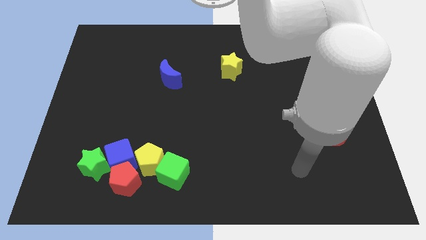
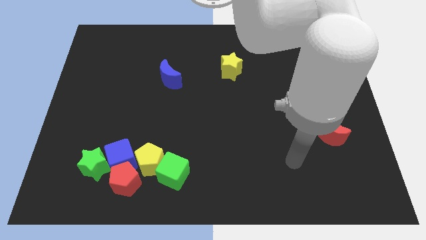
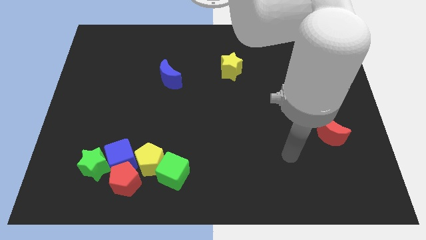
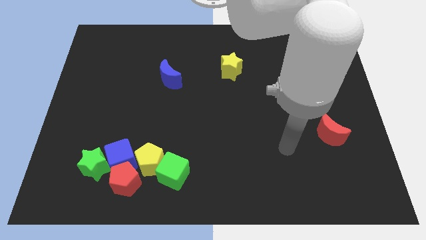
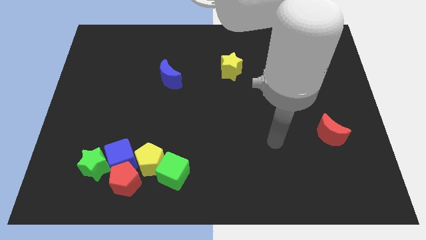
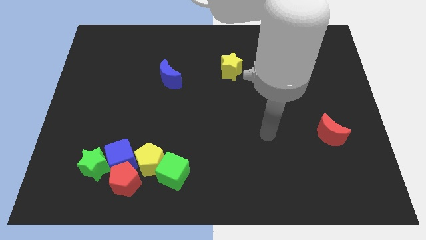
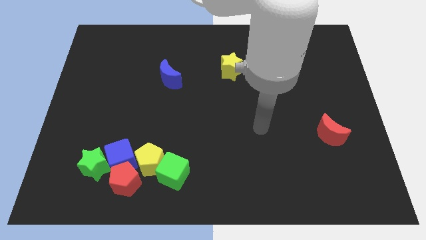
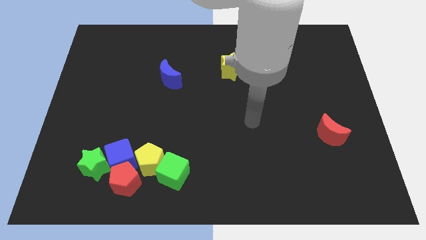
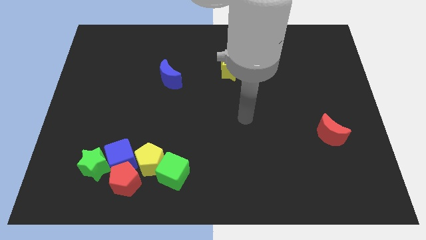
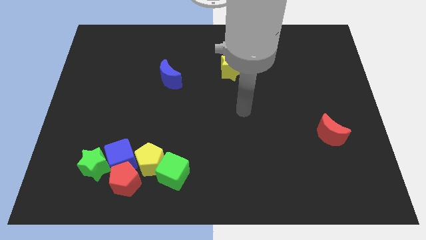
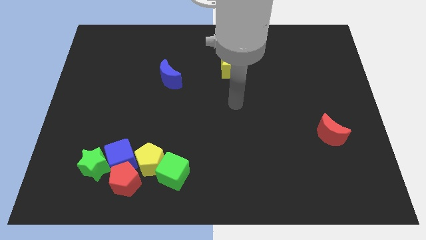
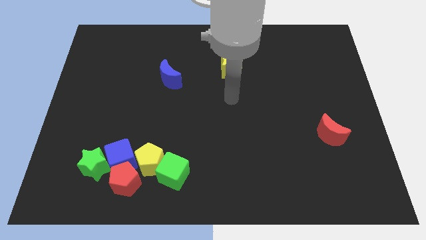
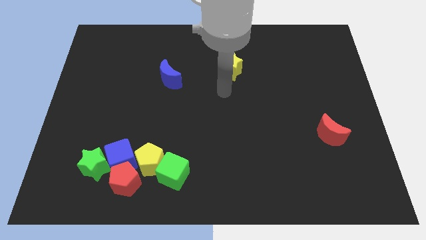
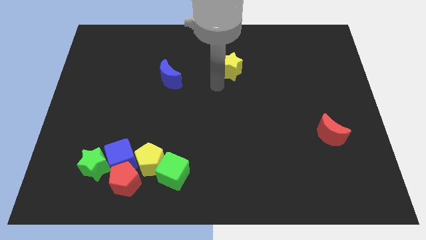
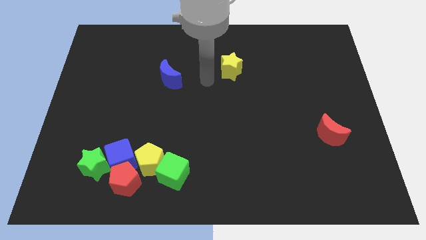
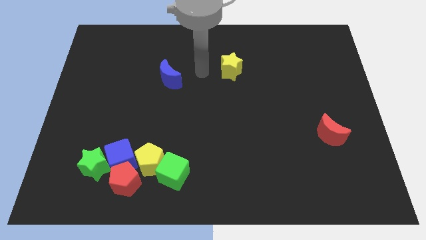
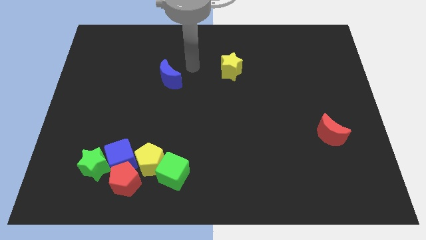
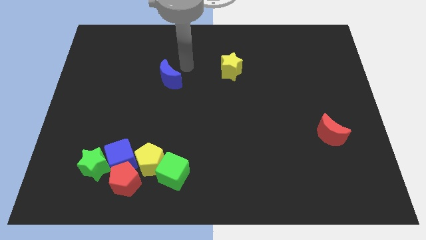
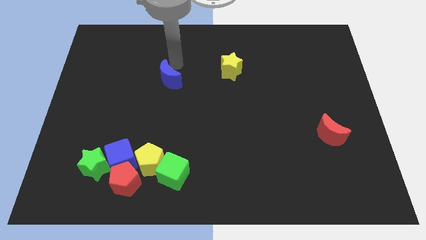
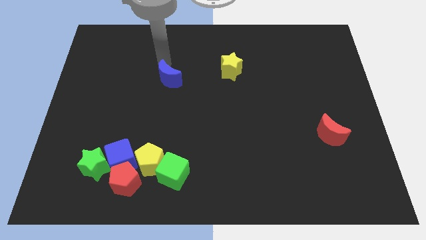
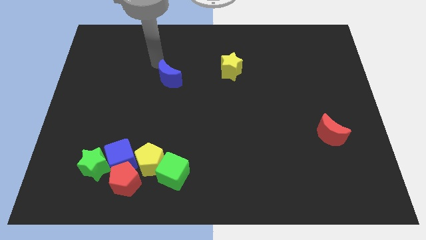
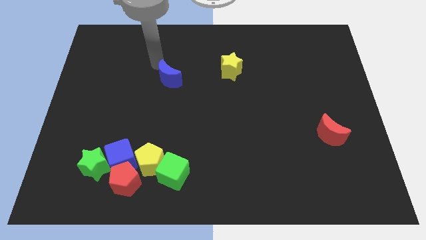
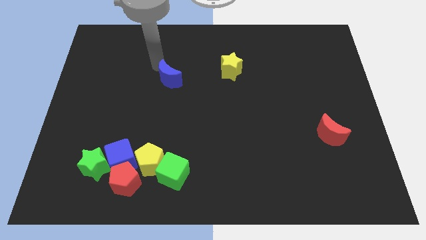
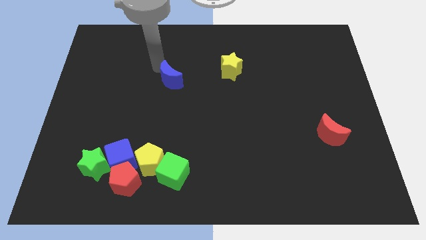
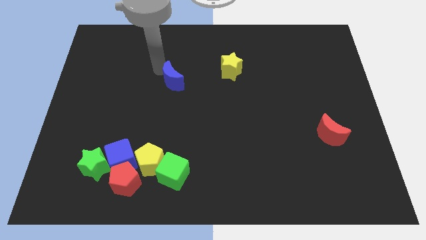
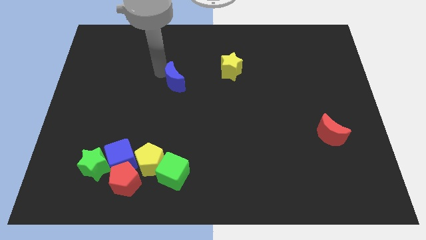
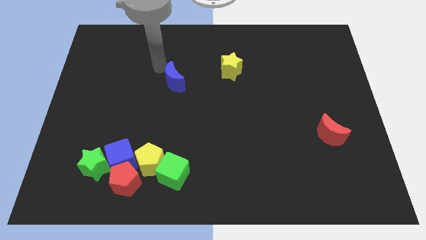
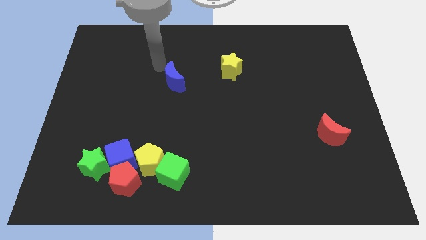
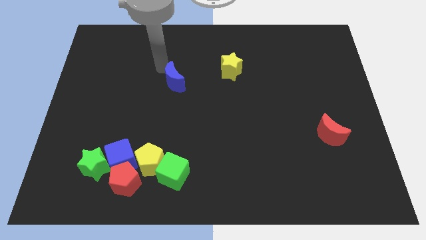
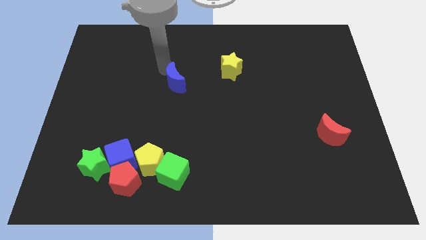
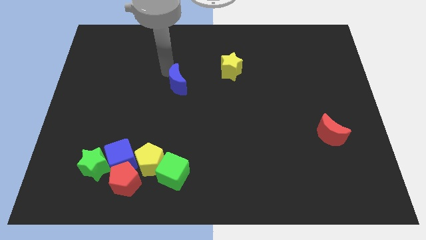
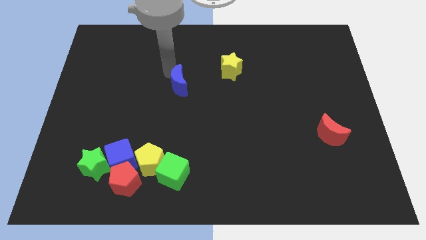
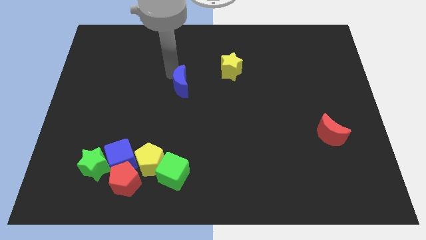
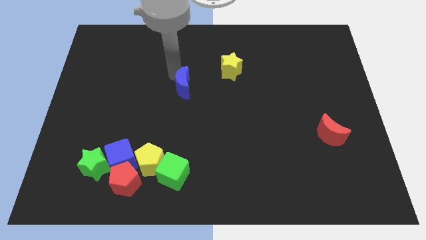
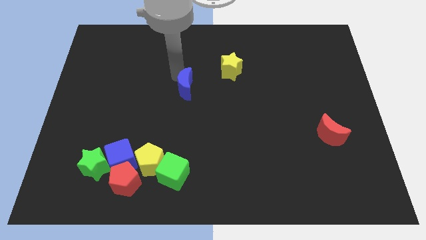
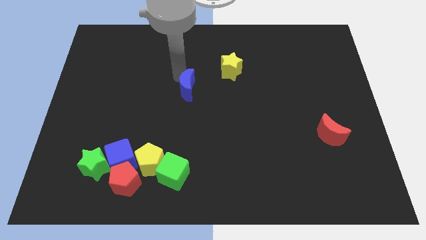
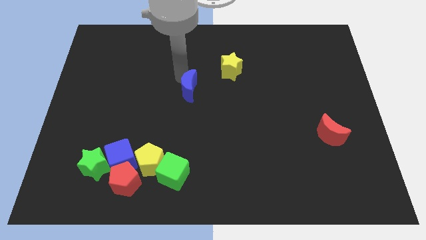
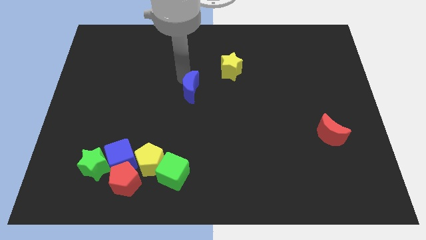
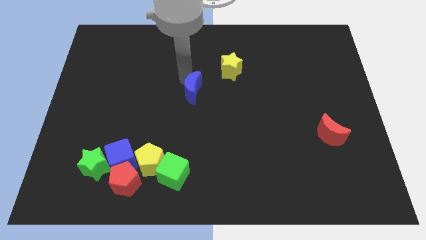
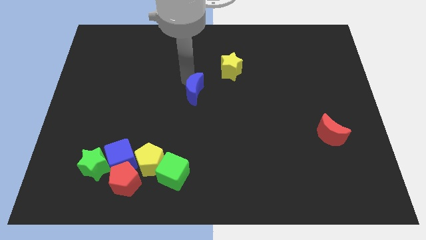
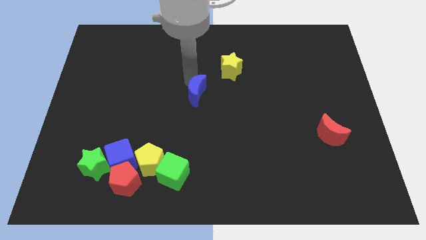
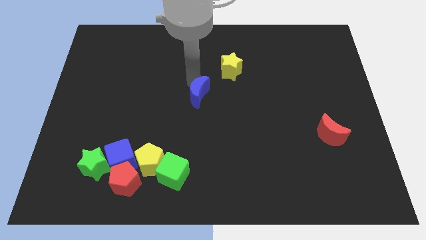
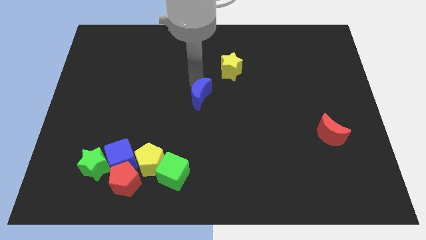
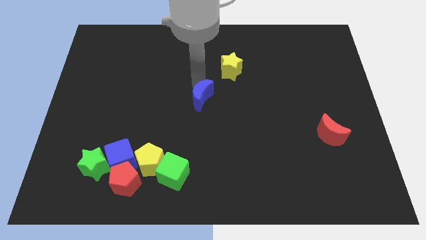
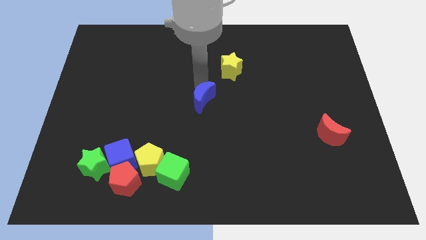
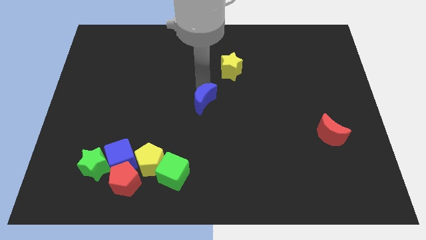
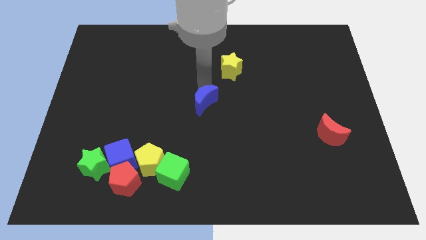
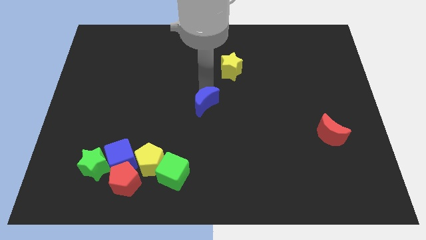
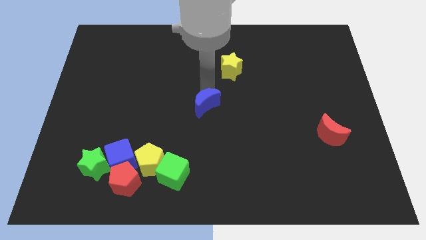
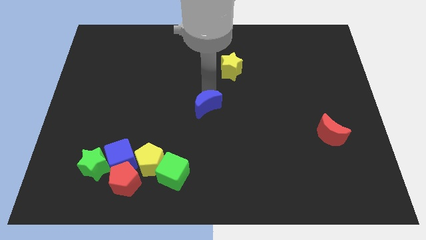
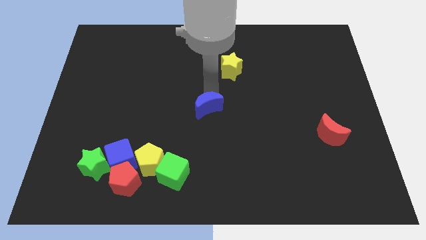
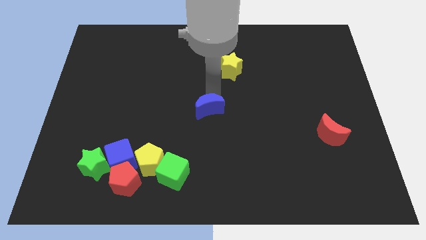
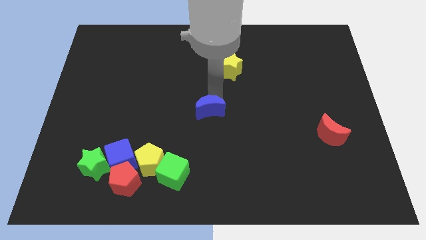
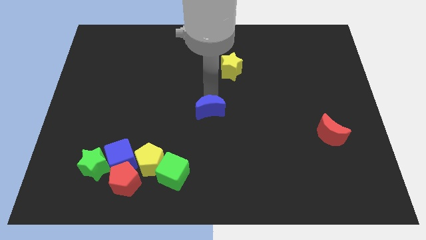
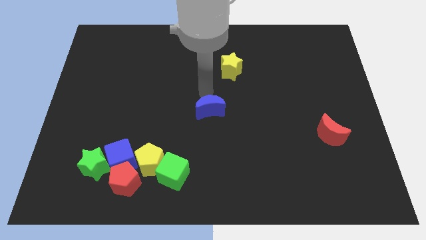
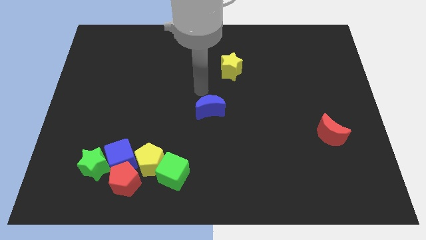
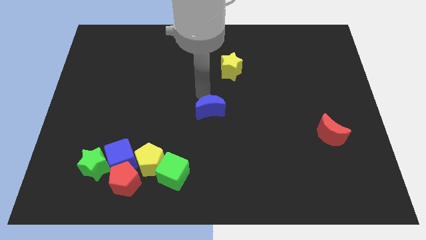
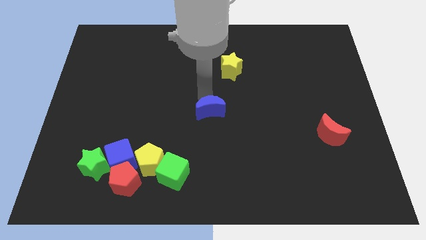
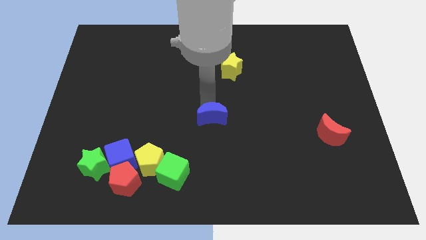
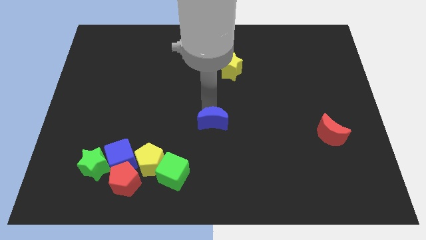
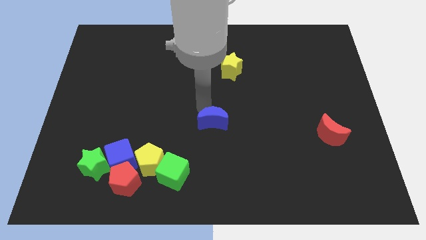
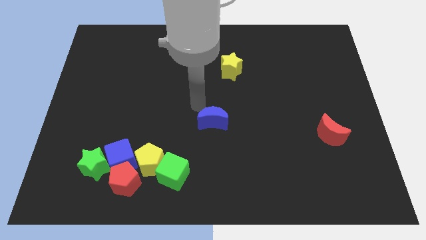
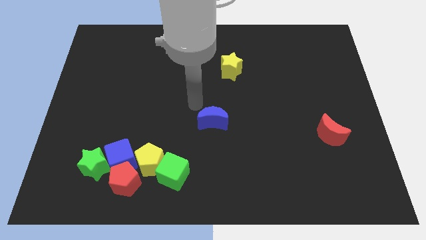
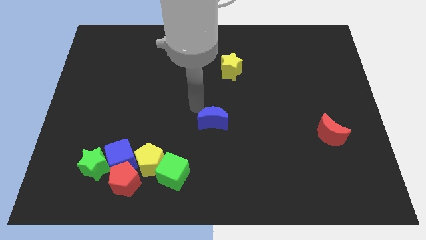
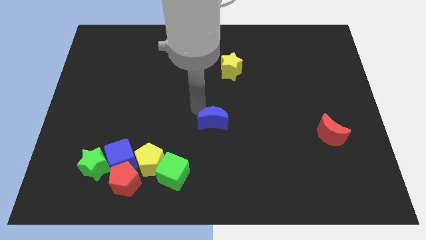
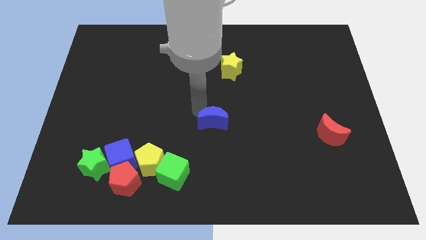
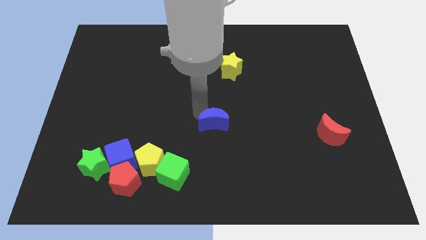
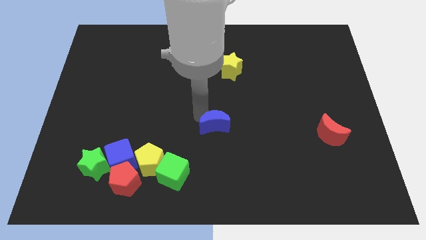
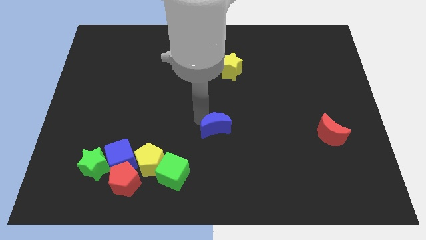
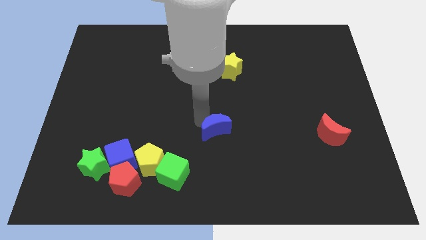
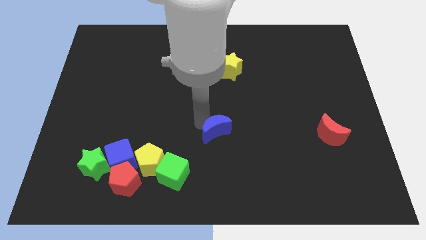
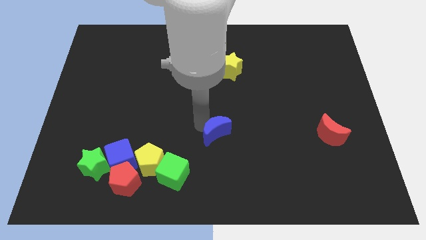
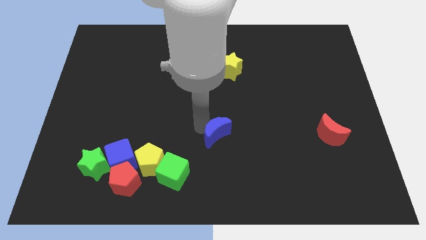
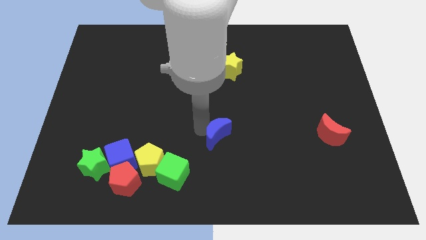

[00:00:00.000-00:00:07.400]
slide the blue moon down and to the right

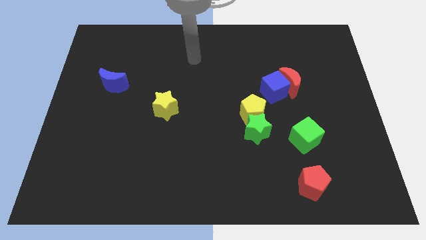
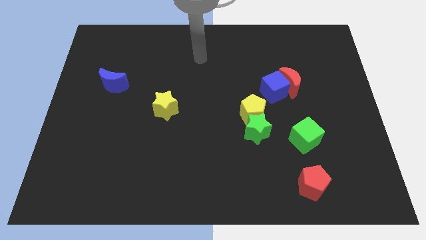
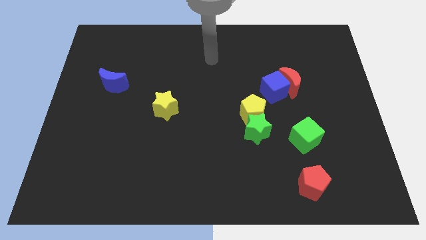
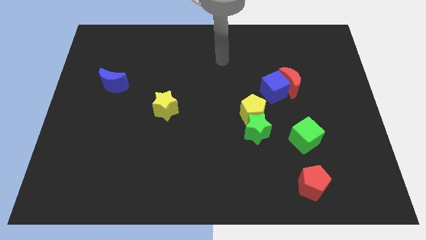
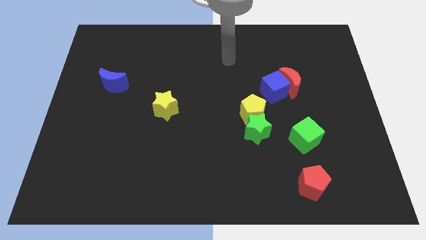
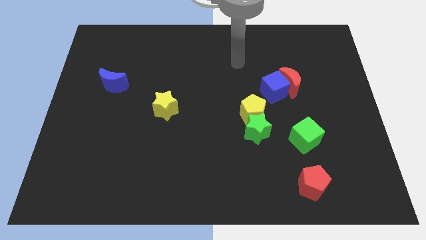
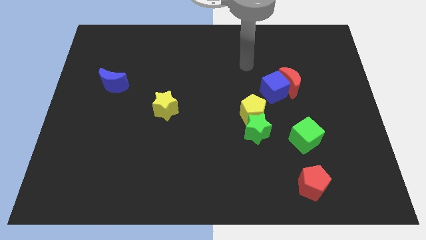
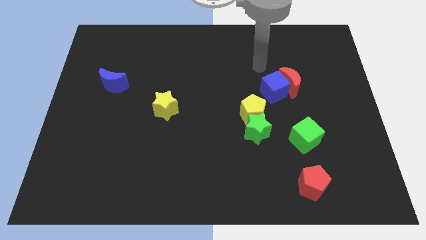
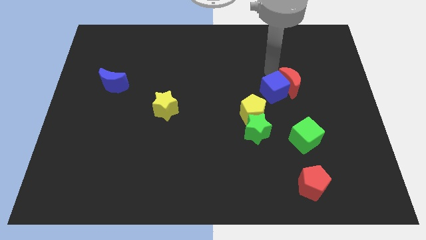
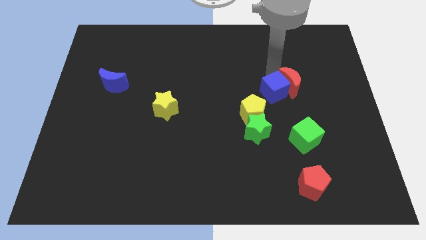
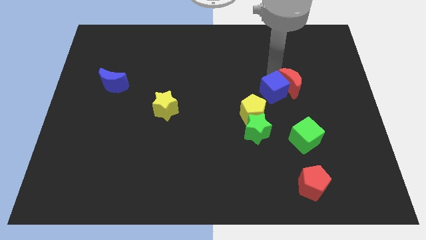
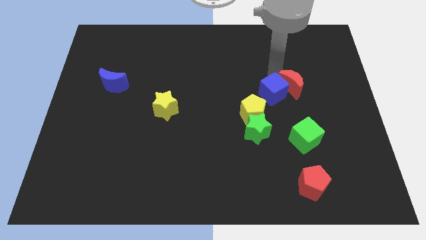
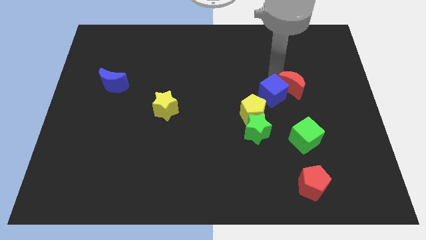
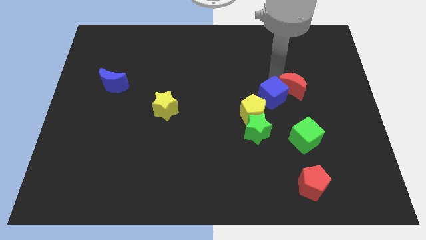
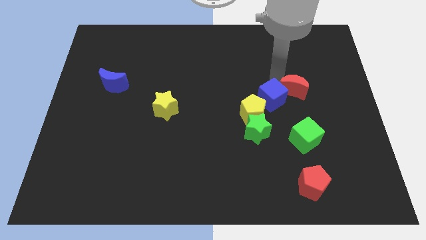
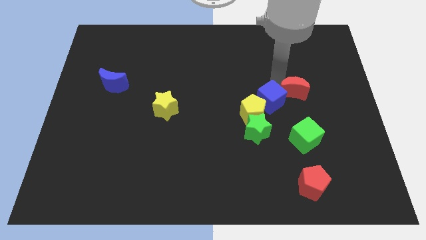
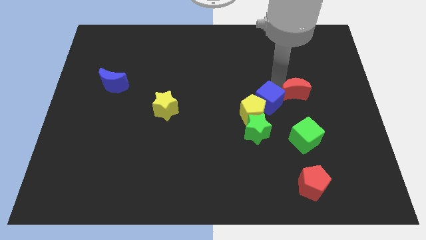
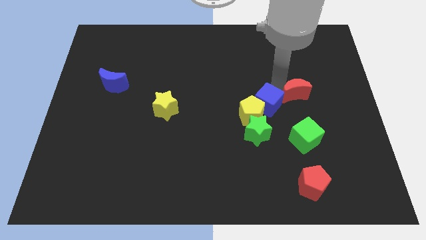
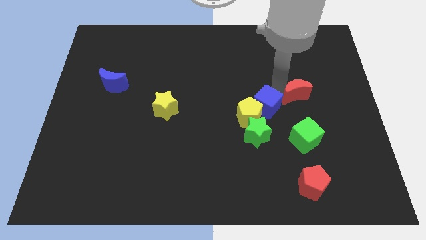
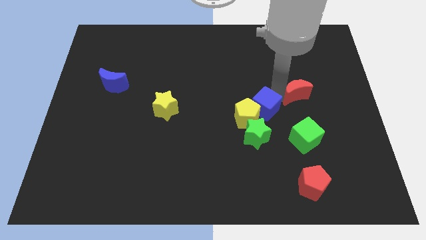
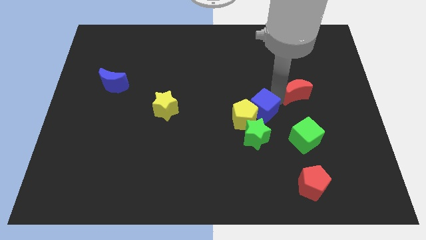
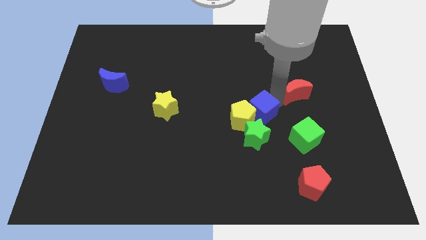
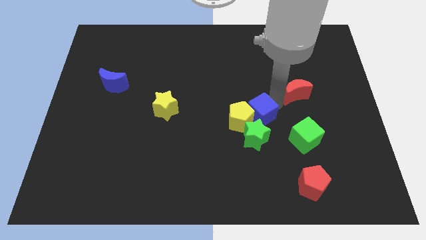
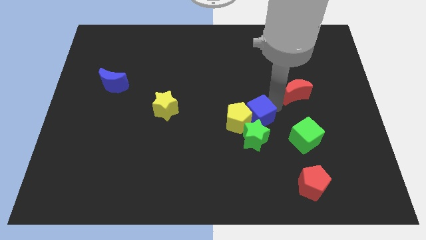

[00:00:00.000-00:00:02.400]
slide the blue cube down a little bit
